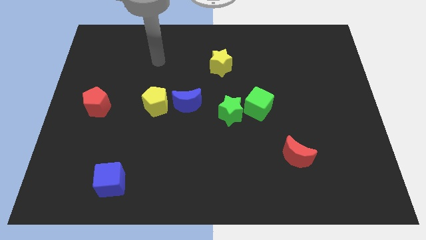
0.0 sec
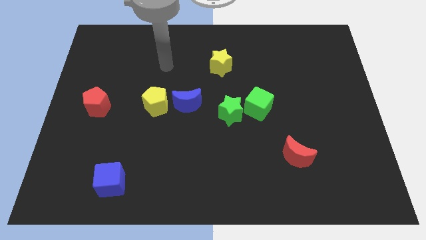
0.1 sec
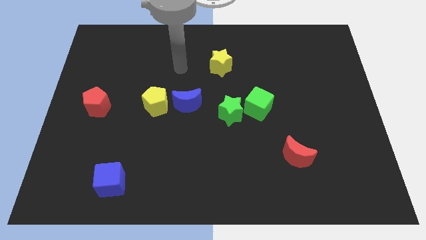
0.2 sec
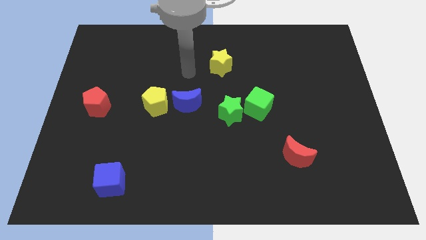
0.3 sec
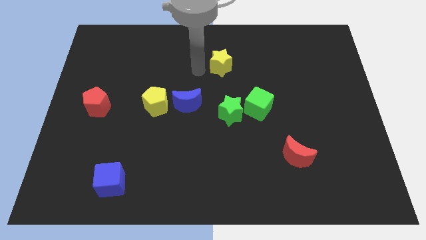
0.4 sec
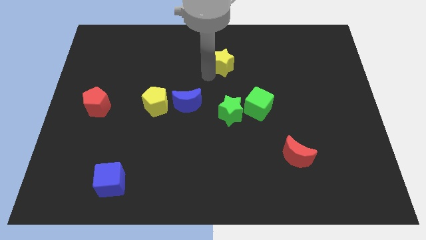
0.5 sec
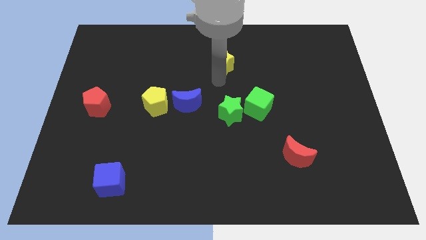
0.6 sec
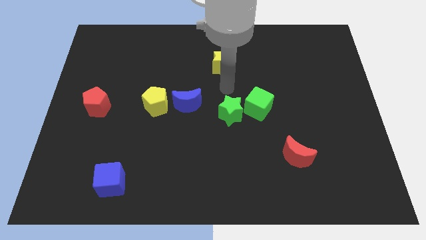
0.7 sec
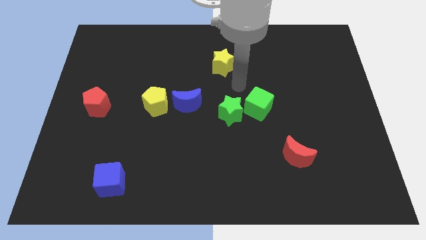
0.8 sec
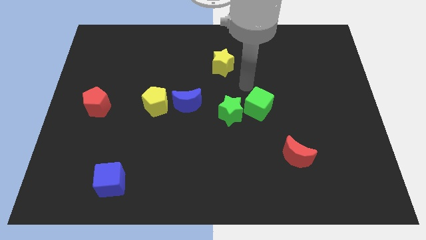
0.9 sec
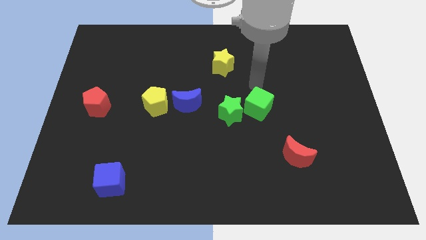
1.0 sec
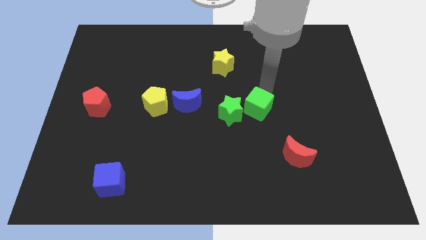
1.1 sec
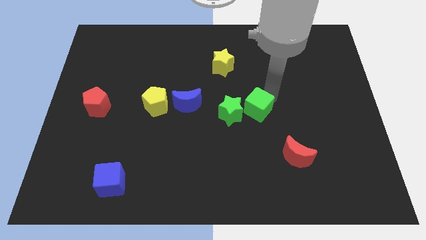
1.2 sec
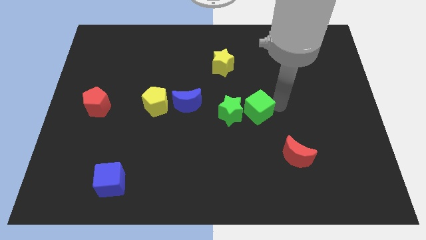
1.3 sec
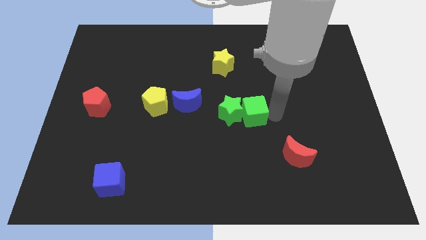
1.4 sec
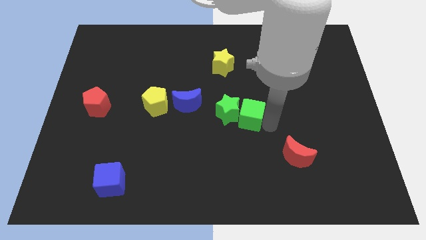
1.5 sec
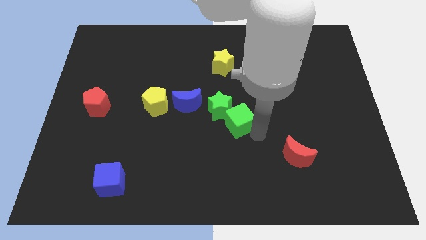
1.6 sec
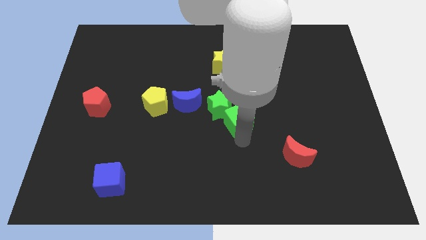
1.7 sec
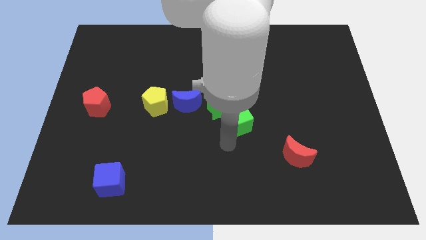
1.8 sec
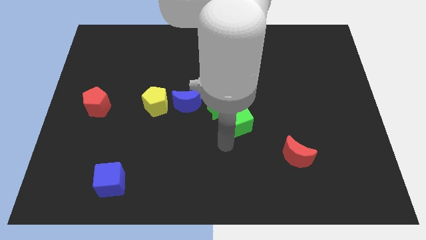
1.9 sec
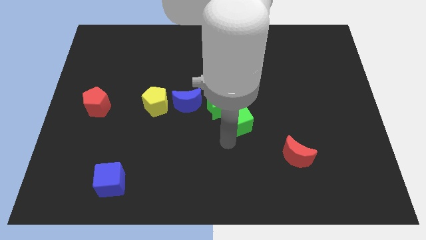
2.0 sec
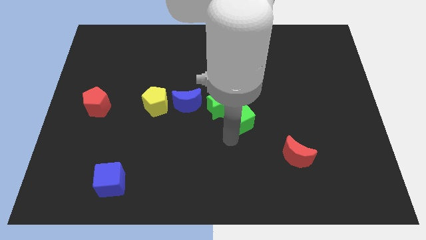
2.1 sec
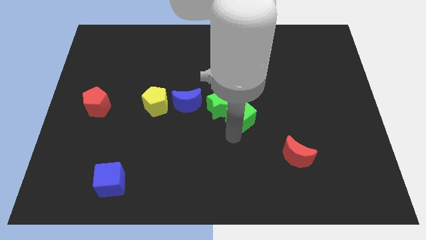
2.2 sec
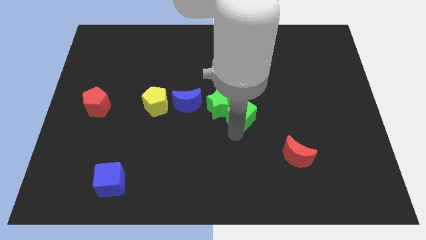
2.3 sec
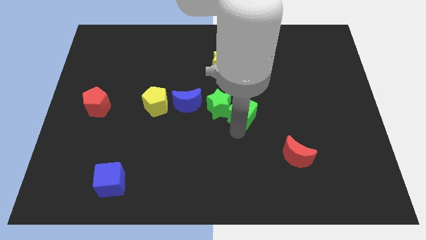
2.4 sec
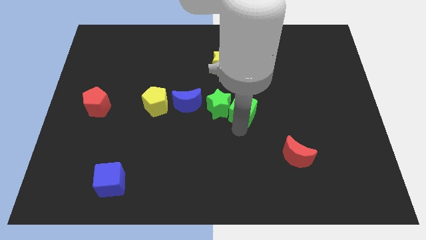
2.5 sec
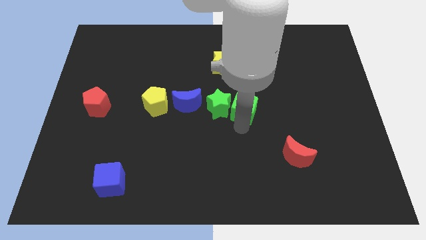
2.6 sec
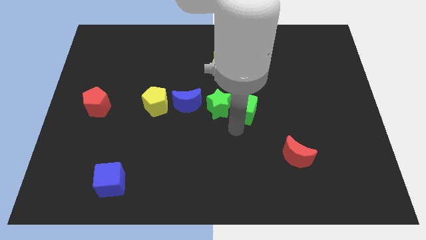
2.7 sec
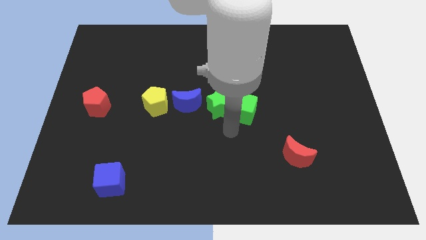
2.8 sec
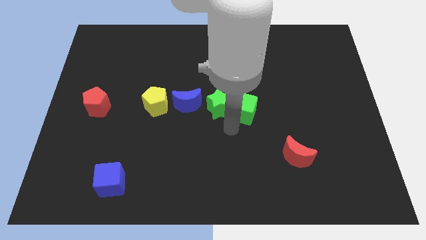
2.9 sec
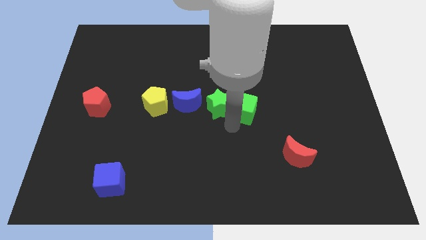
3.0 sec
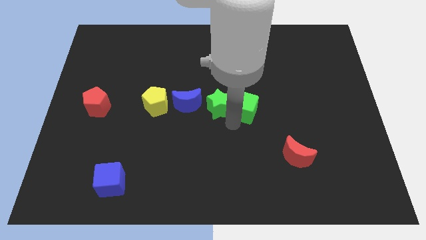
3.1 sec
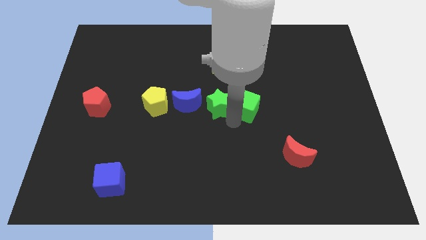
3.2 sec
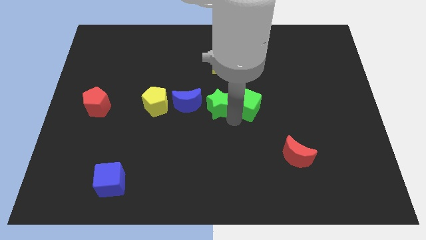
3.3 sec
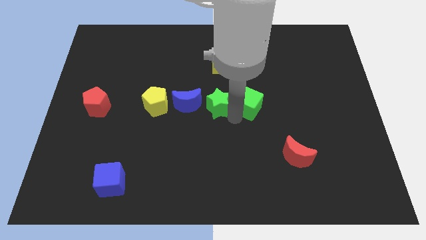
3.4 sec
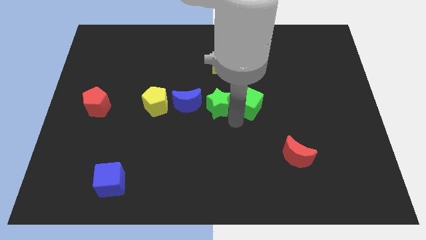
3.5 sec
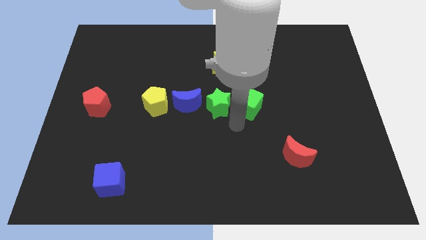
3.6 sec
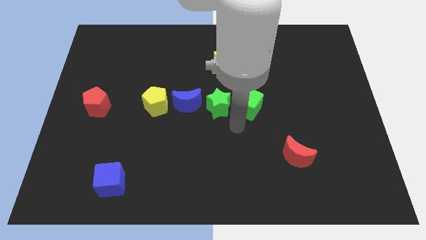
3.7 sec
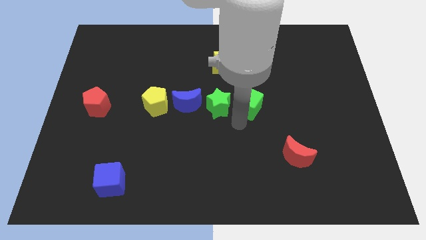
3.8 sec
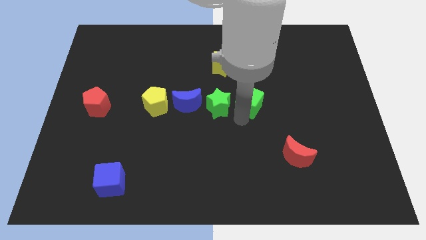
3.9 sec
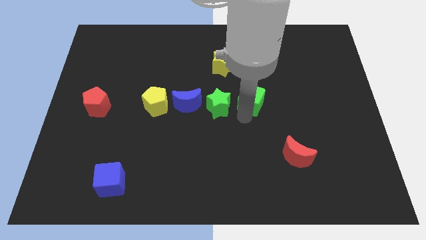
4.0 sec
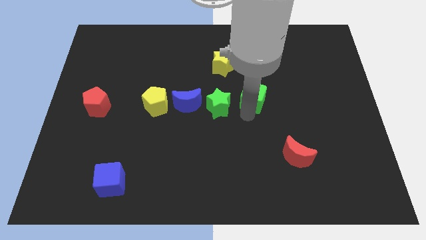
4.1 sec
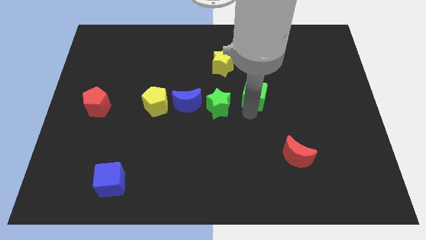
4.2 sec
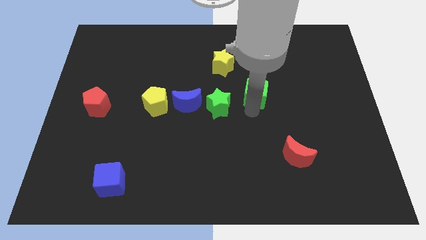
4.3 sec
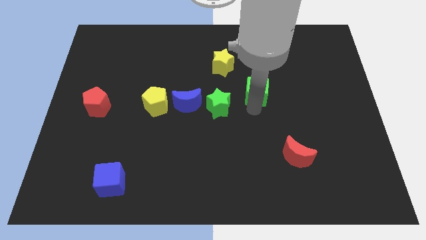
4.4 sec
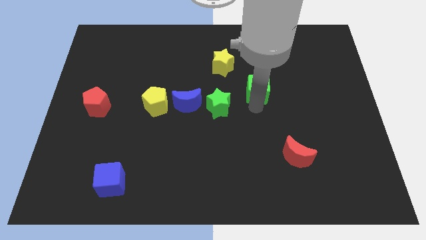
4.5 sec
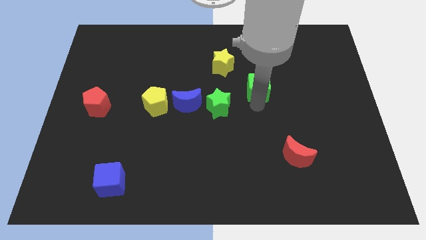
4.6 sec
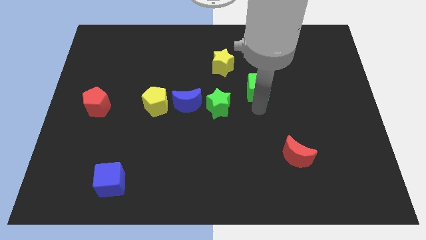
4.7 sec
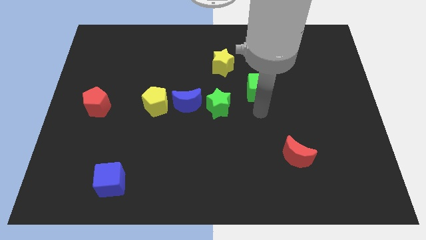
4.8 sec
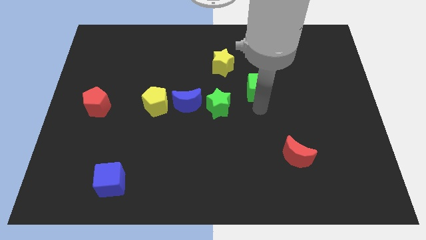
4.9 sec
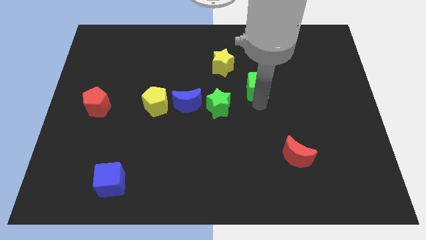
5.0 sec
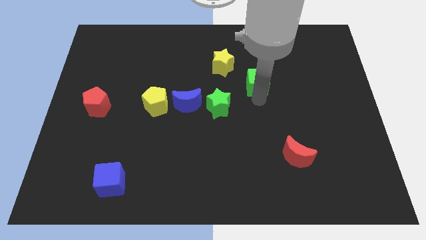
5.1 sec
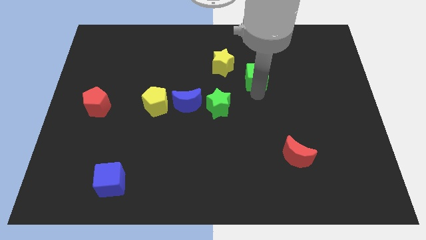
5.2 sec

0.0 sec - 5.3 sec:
put the green cube right of the yellow star

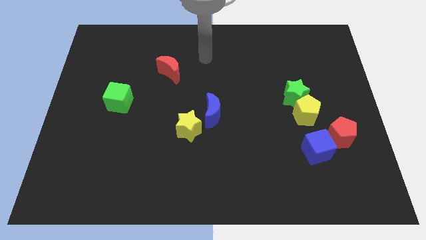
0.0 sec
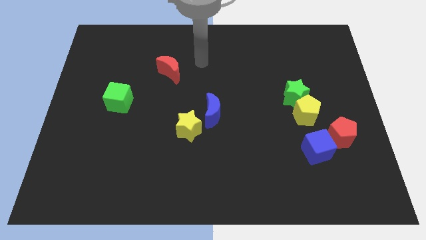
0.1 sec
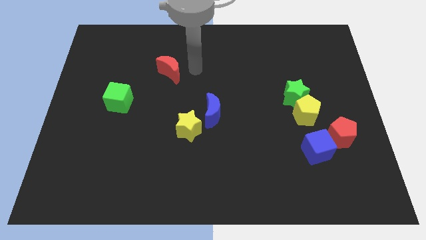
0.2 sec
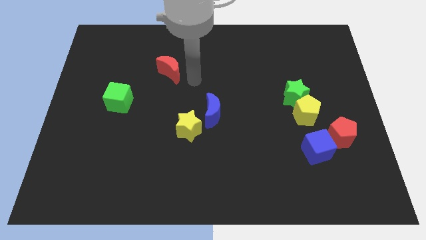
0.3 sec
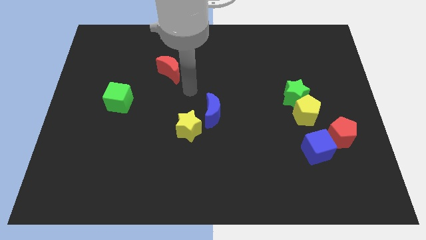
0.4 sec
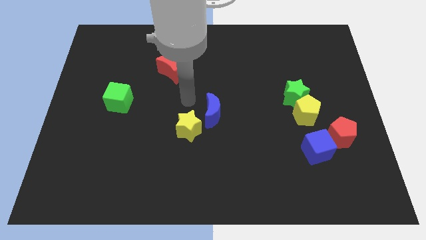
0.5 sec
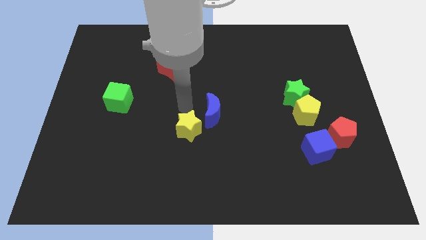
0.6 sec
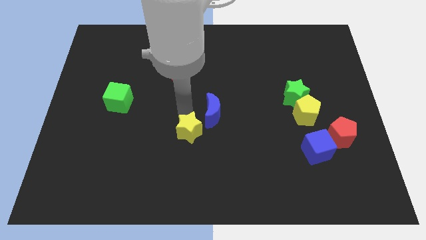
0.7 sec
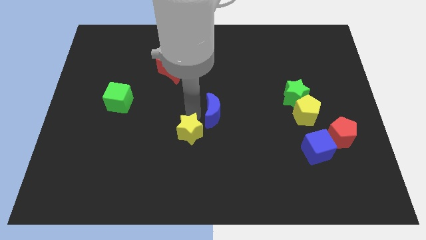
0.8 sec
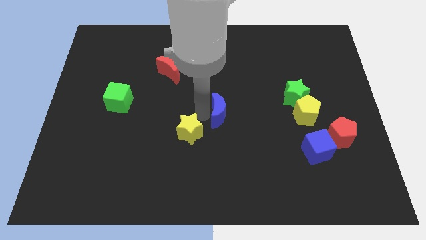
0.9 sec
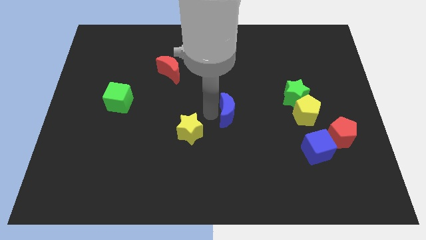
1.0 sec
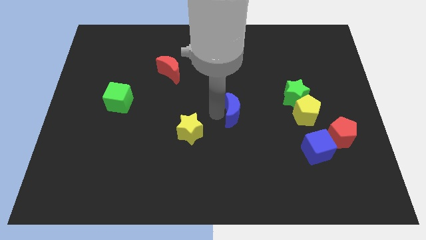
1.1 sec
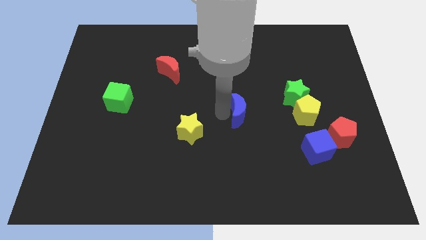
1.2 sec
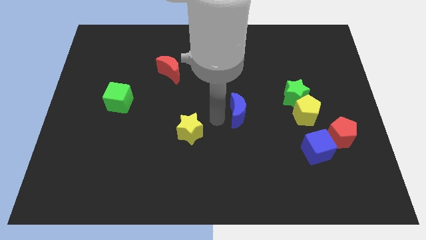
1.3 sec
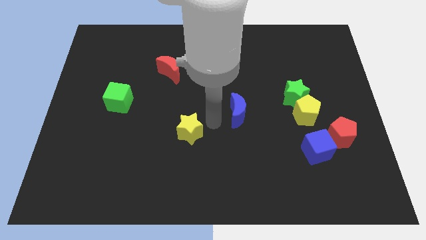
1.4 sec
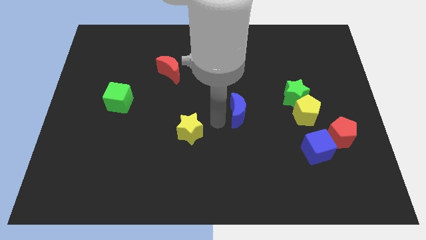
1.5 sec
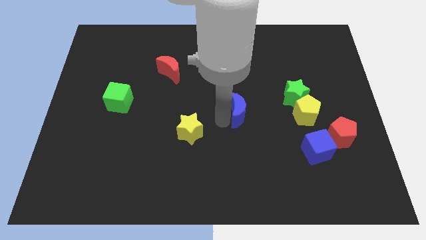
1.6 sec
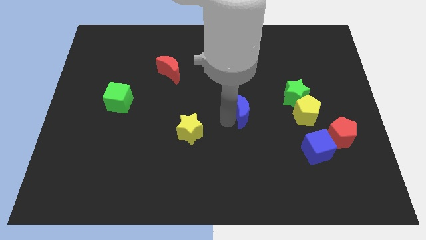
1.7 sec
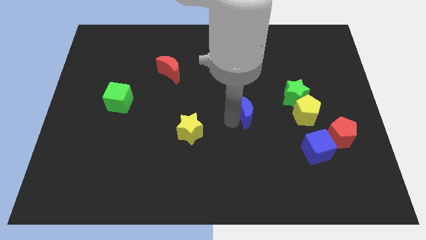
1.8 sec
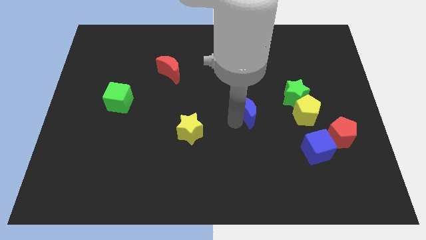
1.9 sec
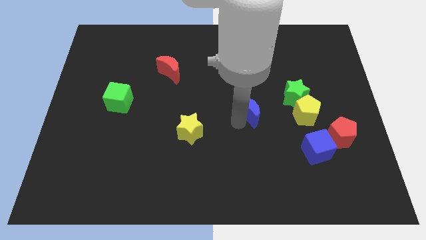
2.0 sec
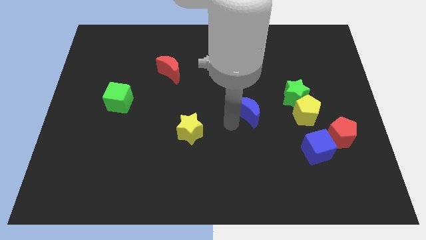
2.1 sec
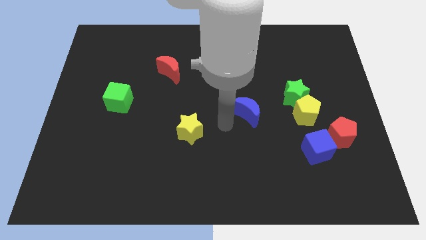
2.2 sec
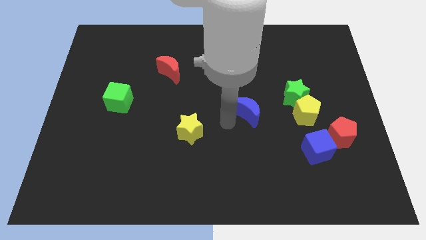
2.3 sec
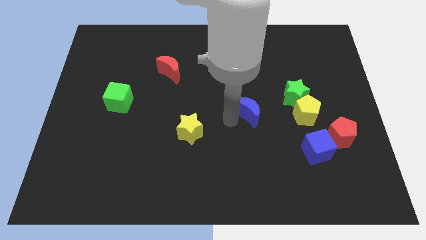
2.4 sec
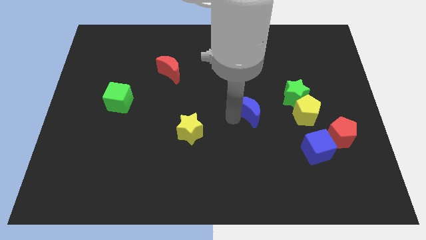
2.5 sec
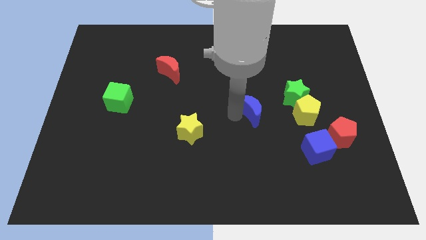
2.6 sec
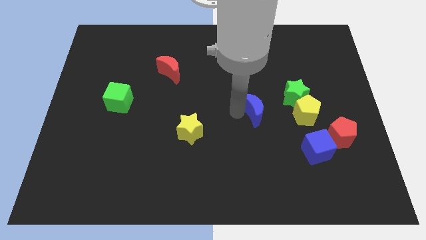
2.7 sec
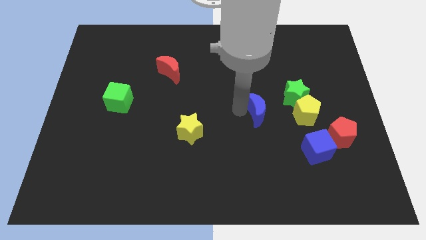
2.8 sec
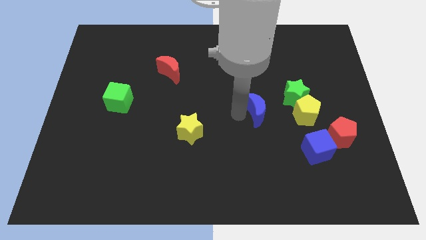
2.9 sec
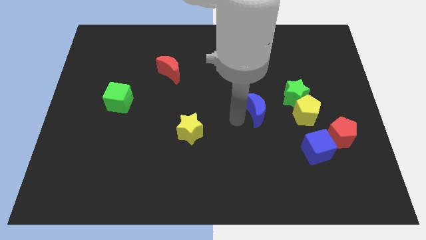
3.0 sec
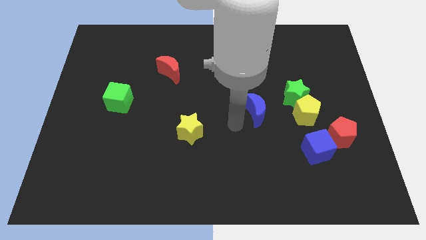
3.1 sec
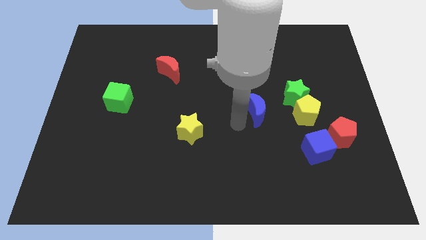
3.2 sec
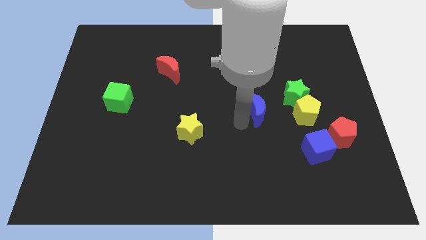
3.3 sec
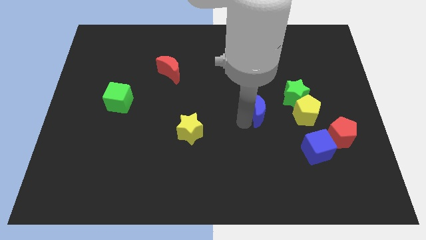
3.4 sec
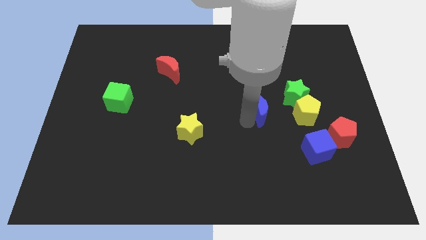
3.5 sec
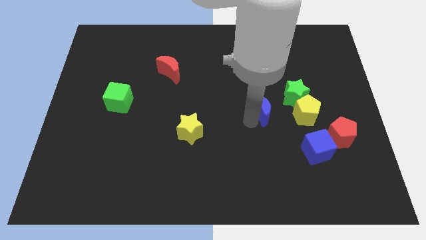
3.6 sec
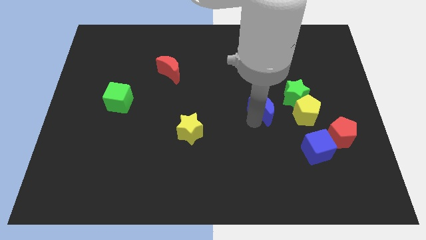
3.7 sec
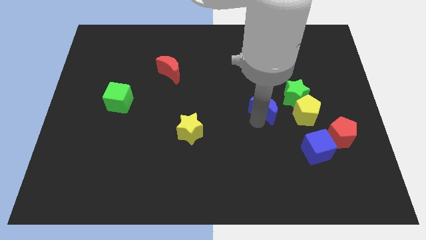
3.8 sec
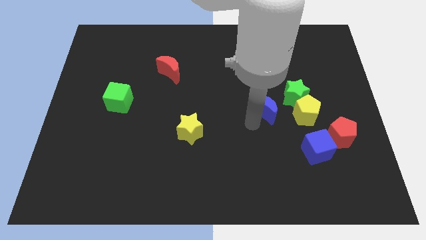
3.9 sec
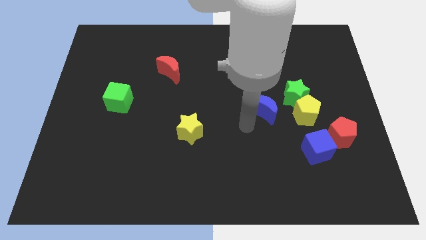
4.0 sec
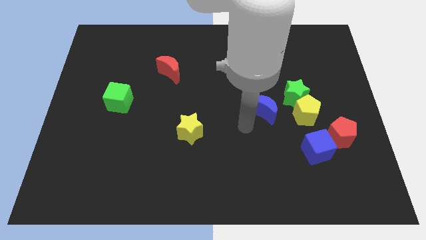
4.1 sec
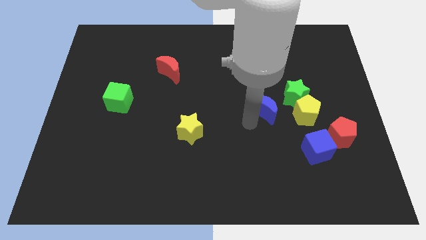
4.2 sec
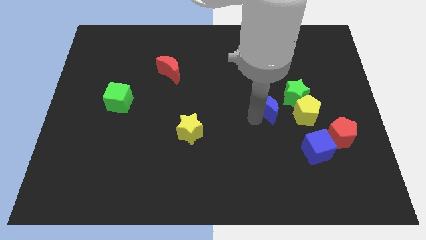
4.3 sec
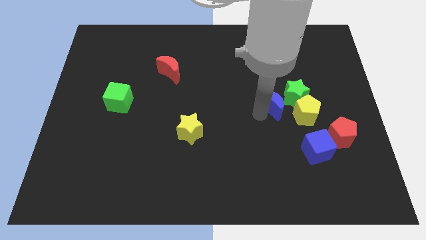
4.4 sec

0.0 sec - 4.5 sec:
put the blue moon to the top left of the yellow pentagon
